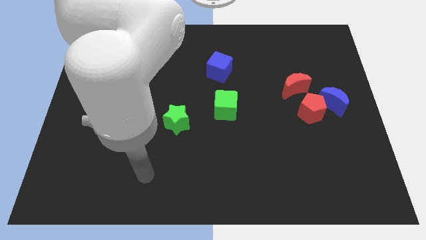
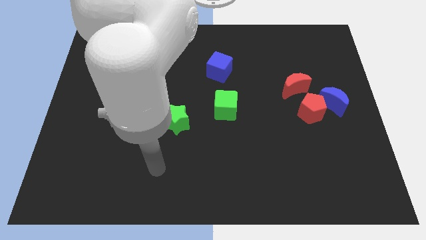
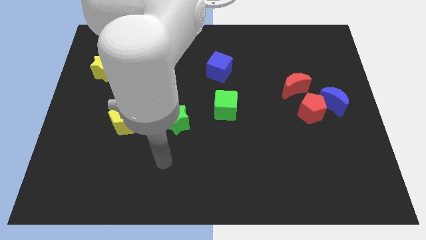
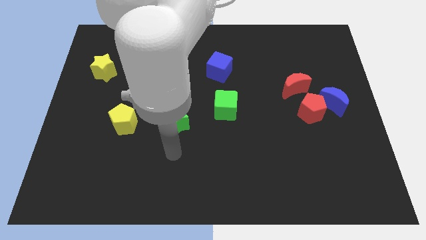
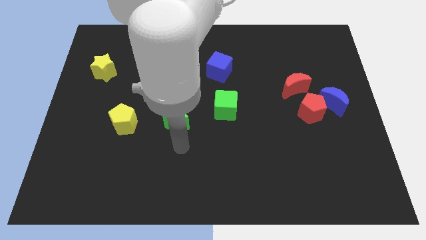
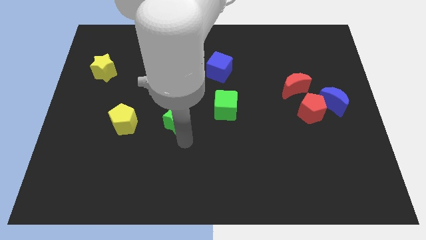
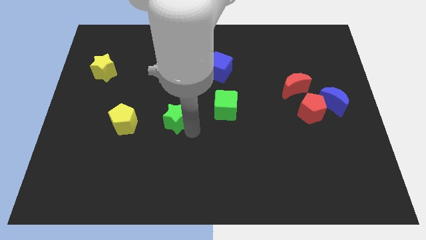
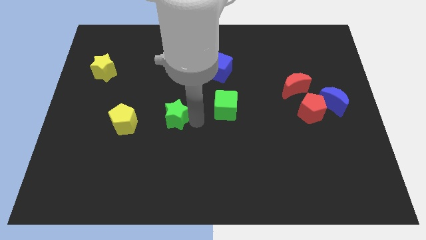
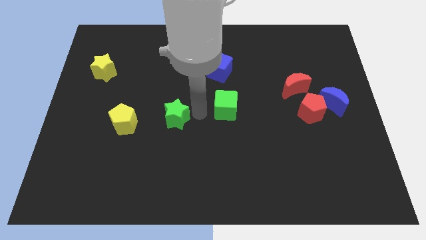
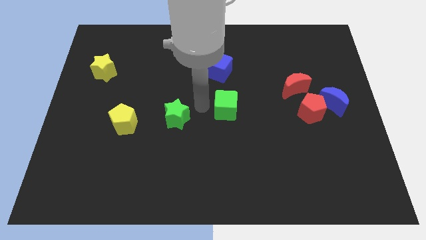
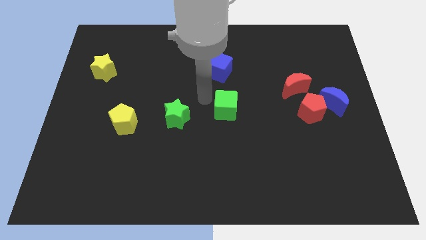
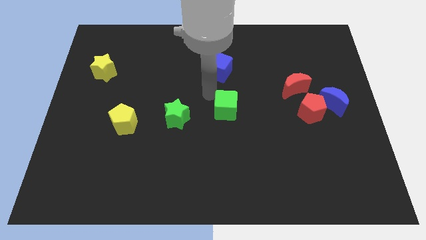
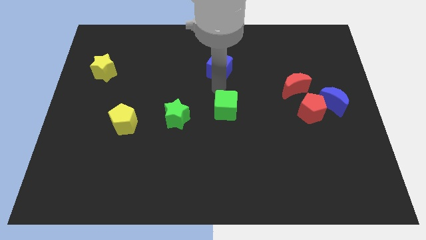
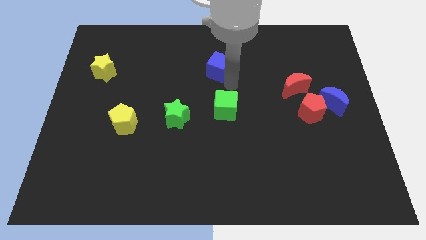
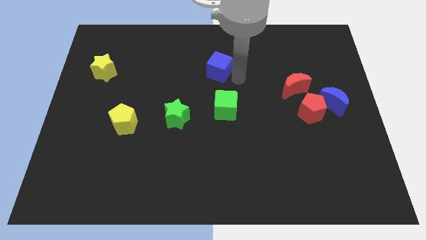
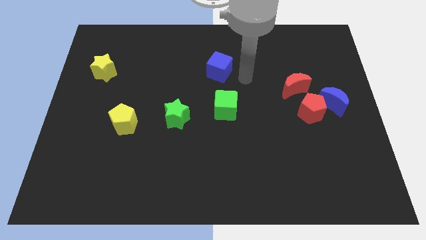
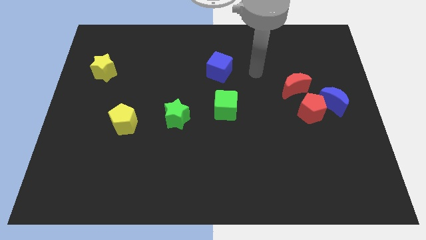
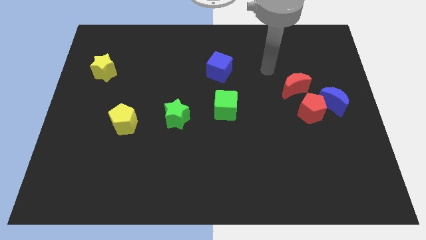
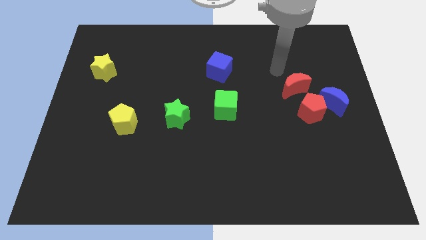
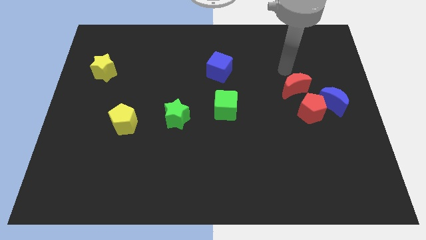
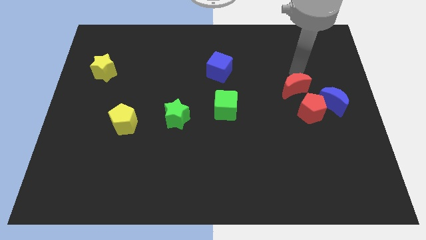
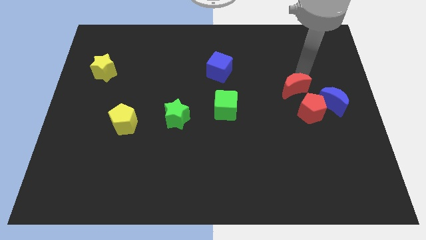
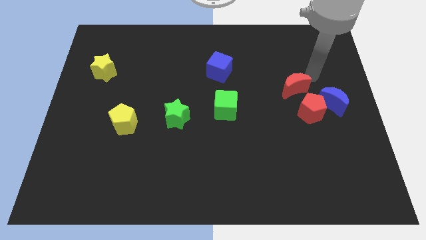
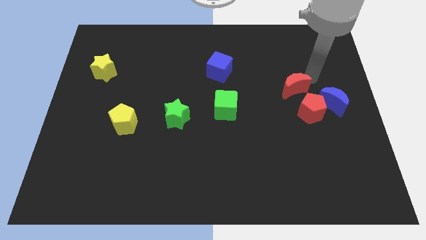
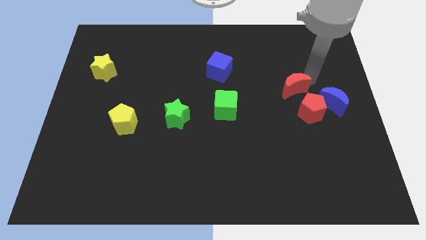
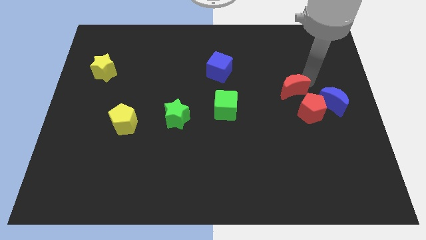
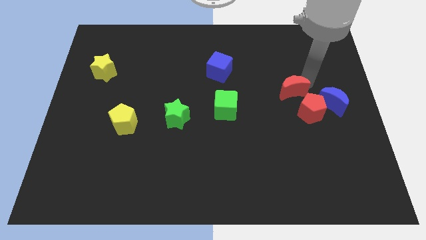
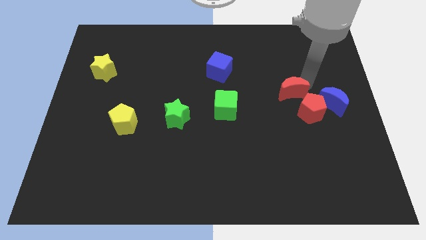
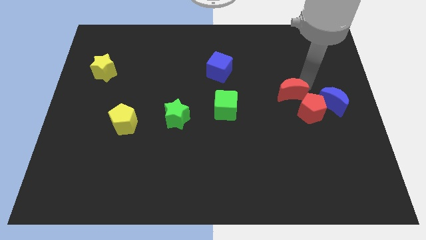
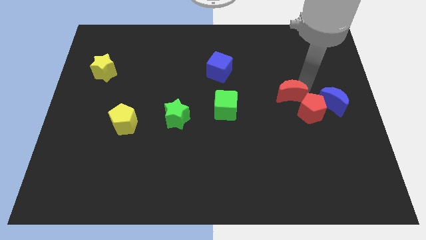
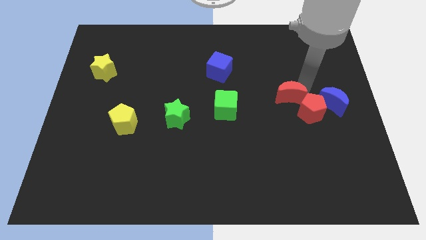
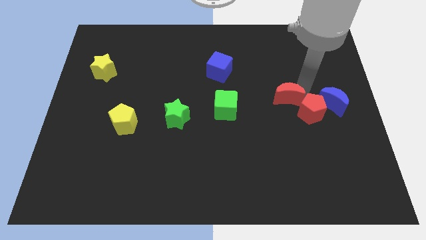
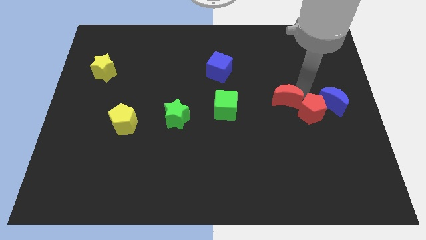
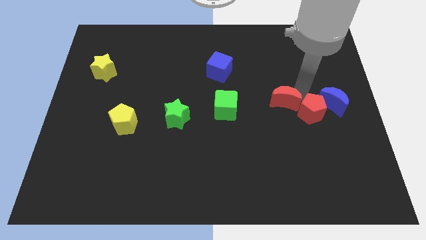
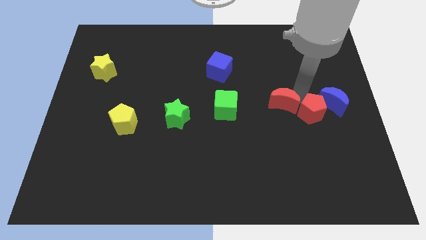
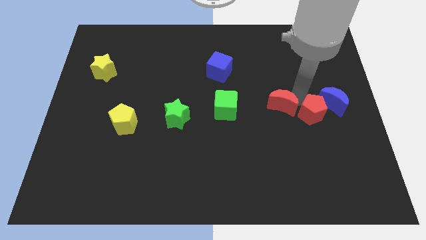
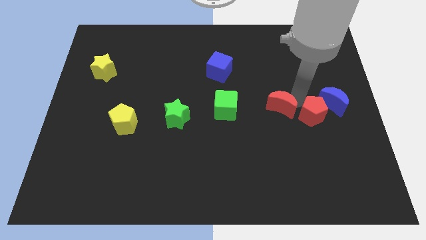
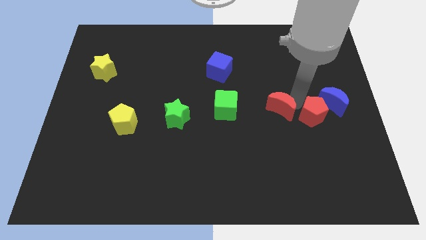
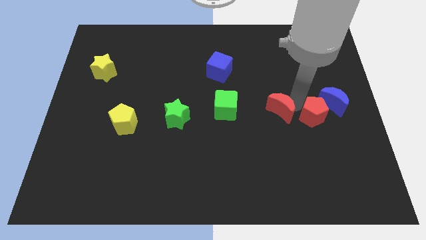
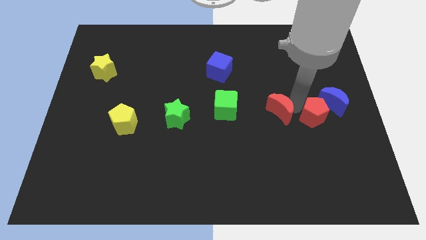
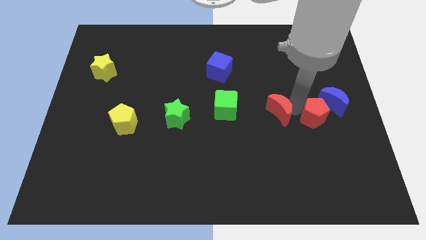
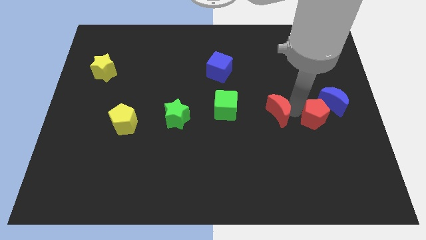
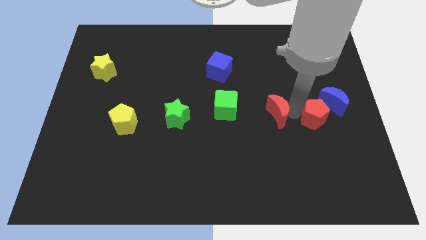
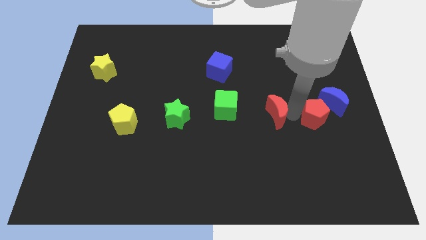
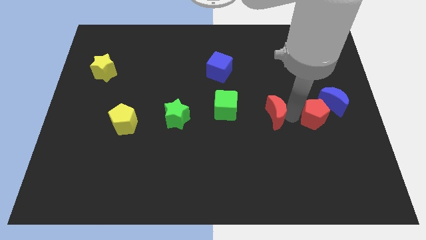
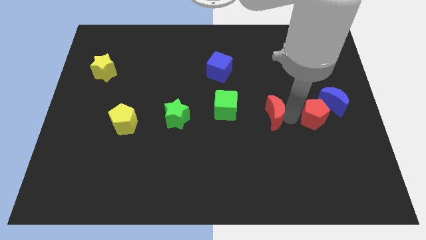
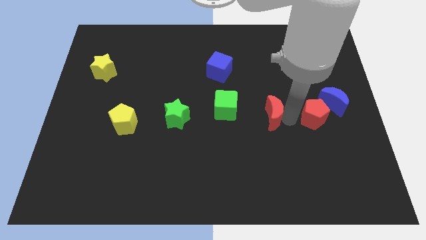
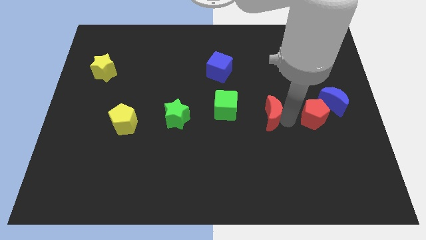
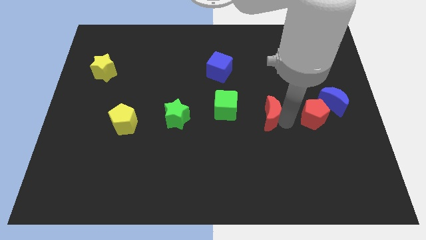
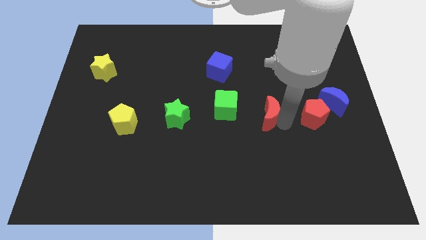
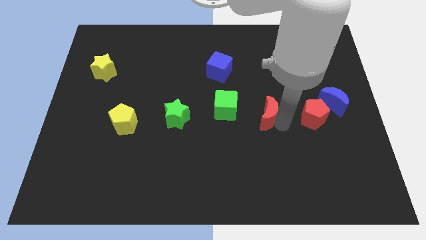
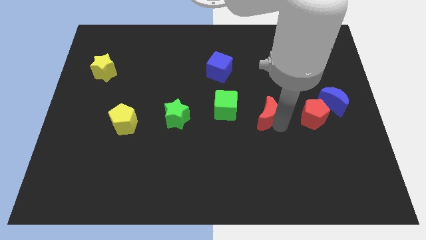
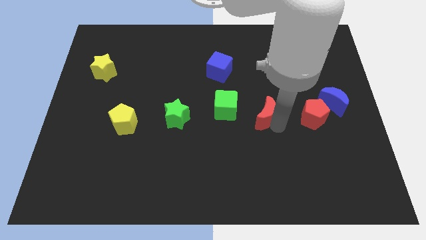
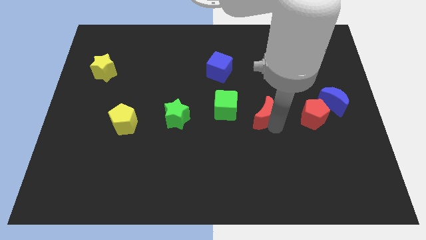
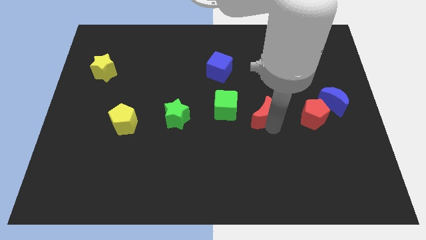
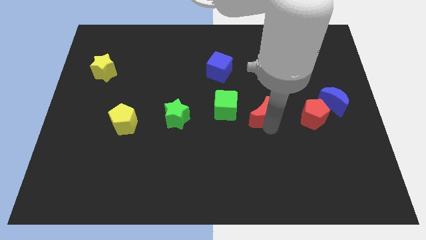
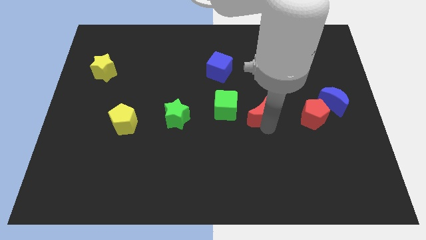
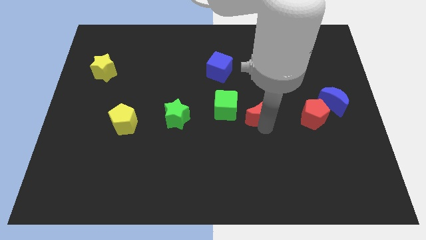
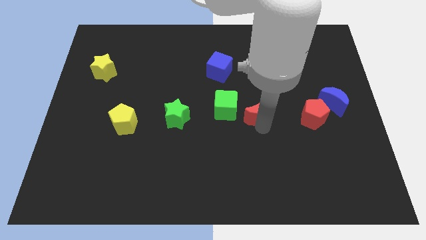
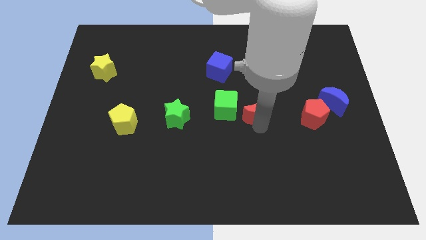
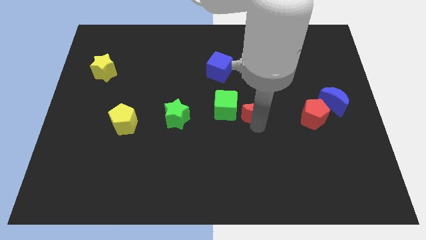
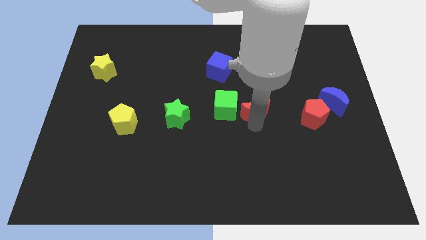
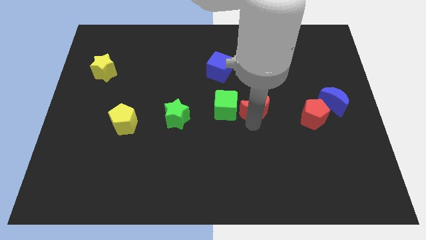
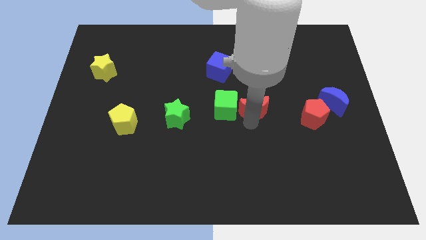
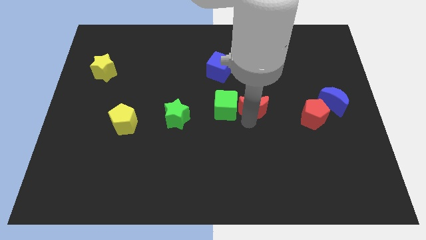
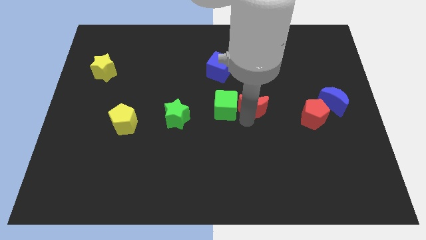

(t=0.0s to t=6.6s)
move the red moon towards the green cube

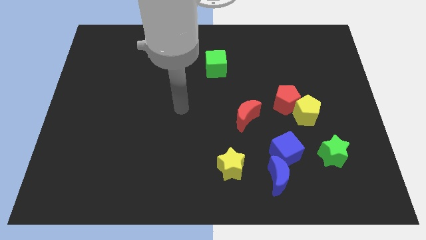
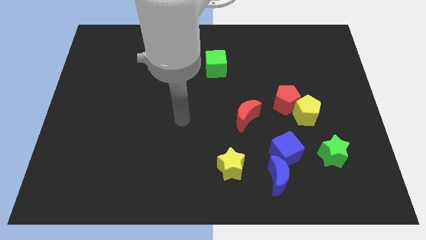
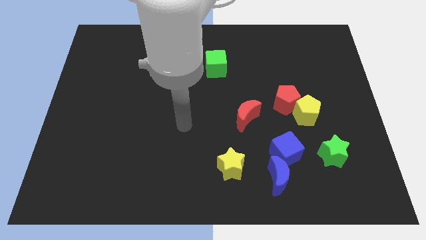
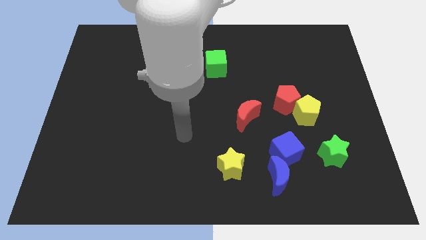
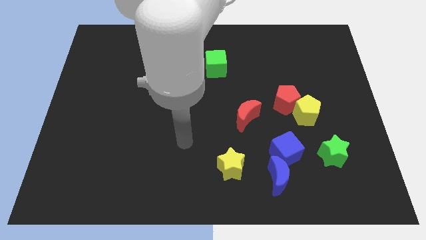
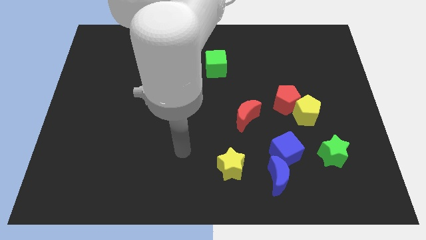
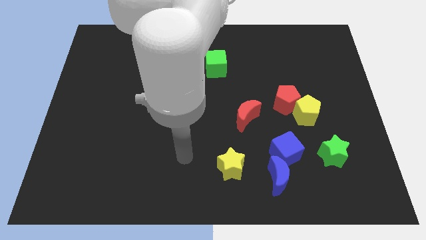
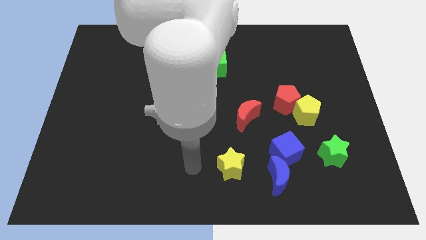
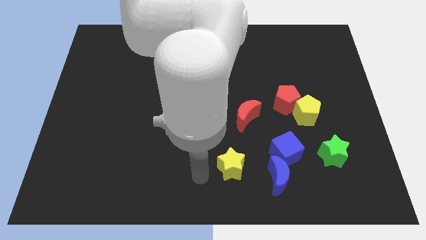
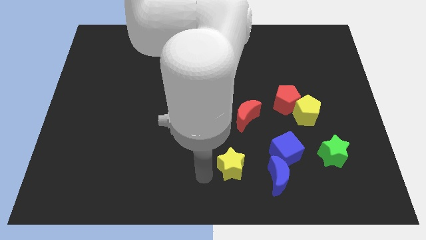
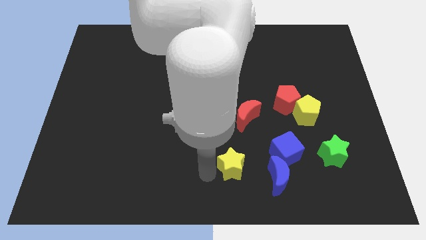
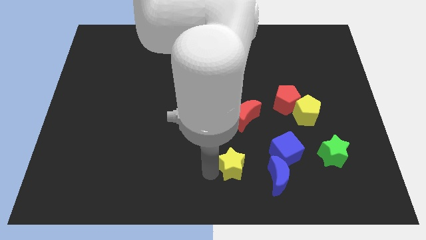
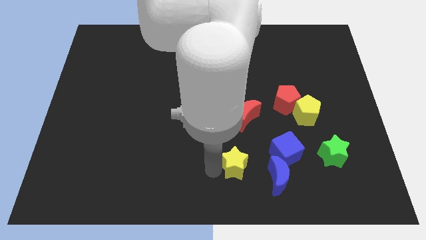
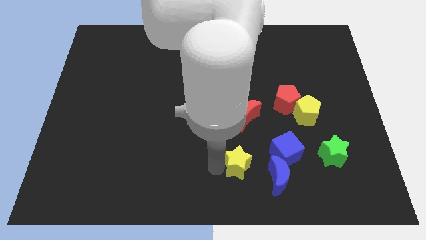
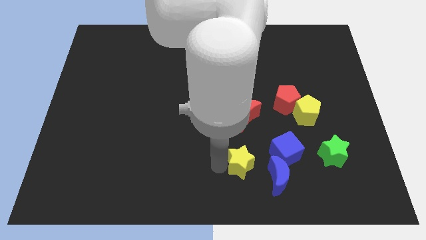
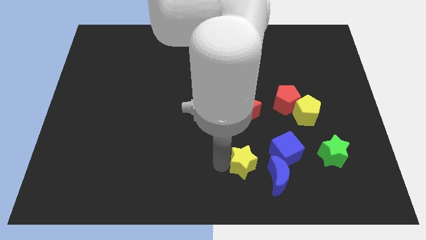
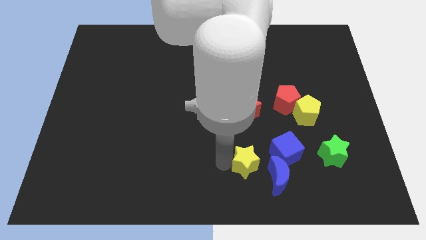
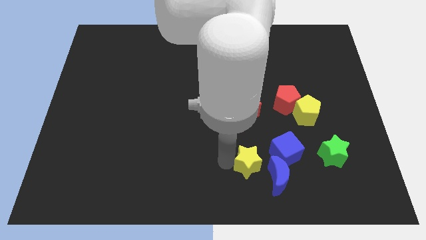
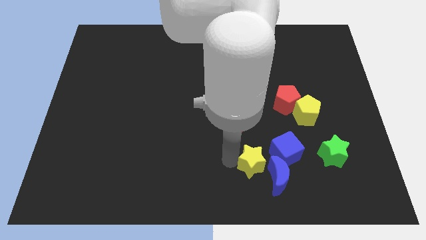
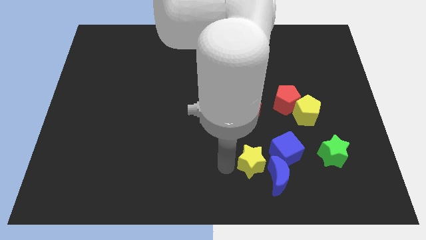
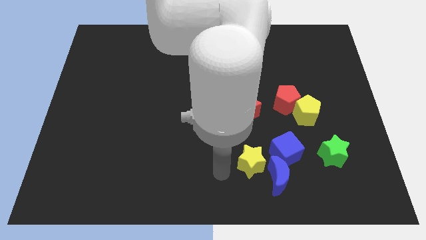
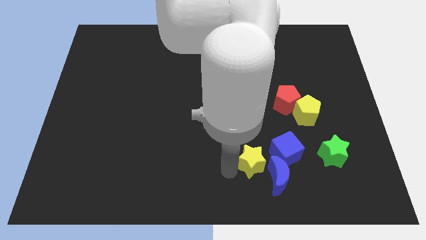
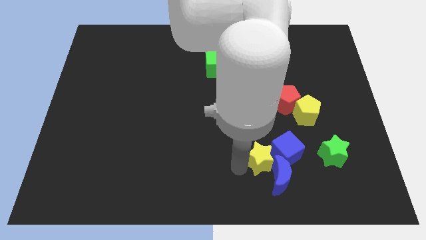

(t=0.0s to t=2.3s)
move the yellow star towards the blue cube
